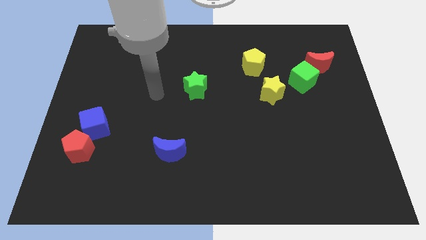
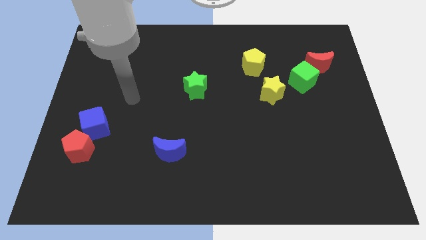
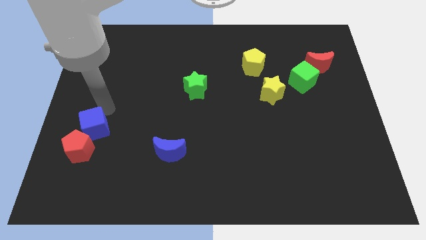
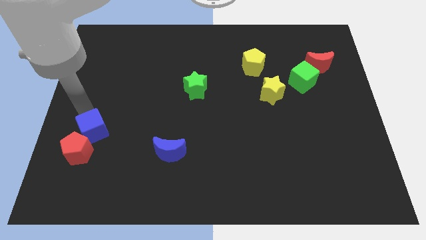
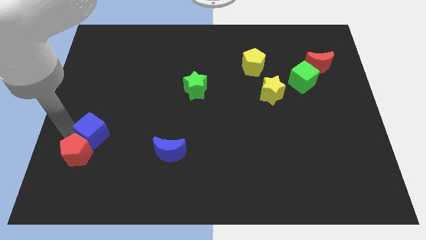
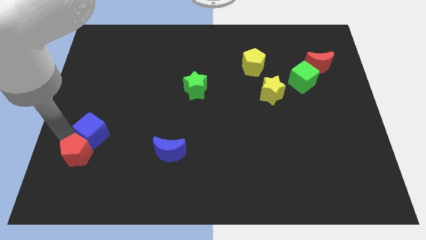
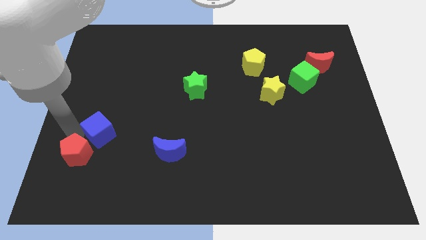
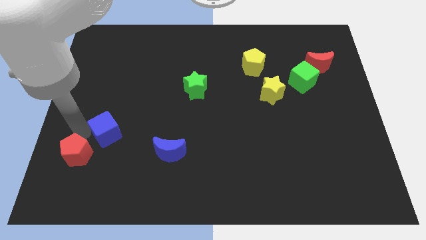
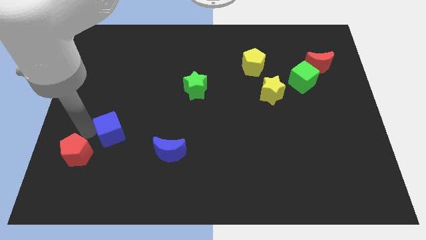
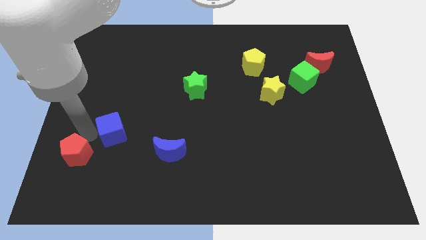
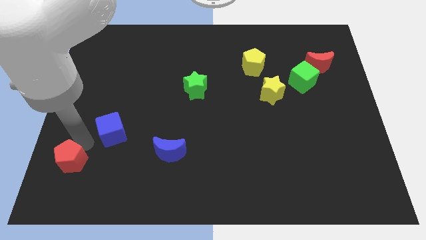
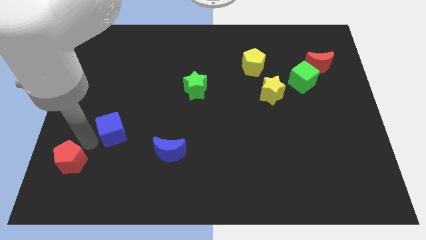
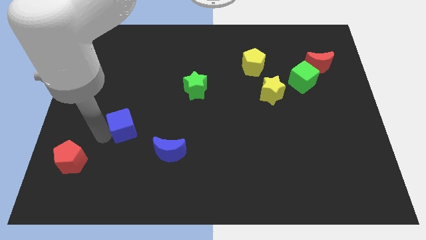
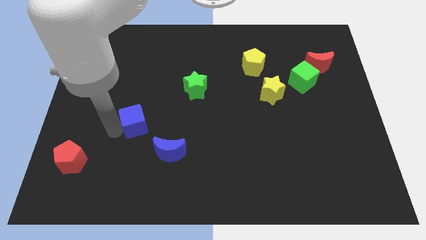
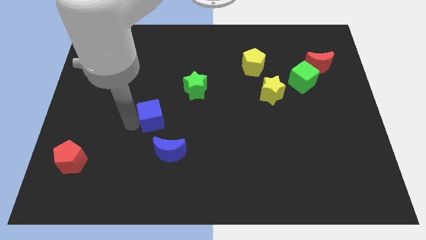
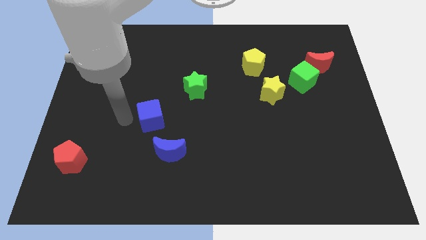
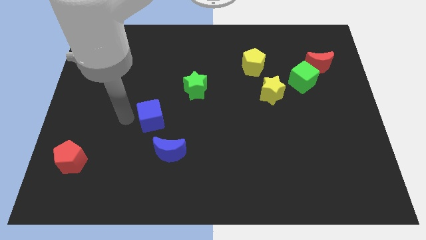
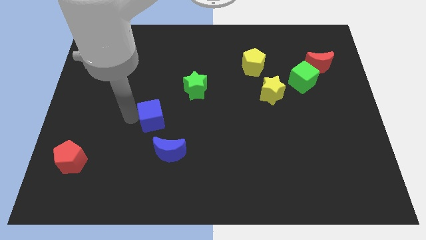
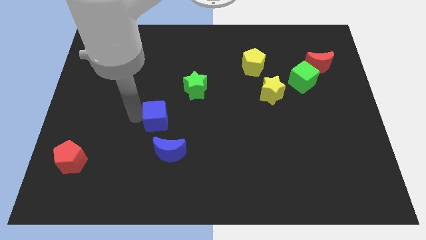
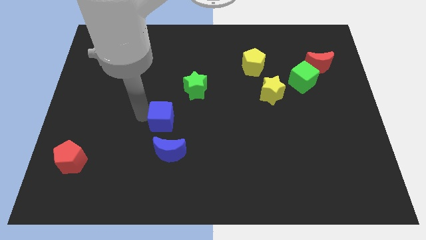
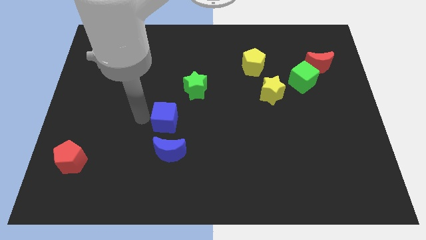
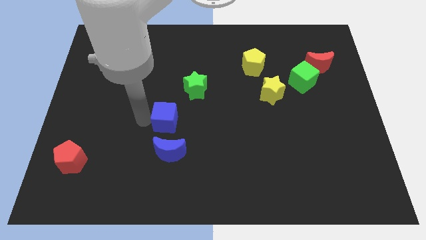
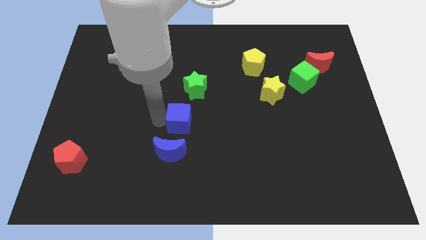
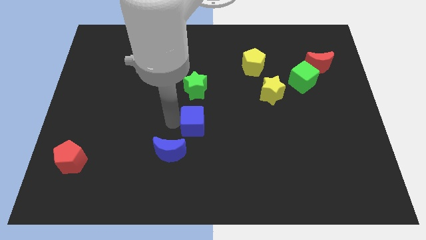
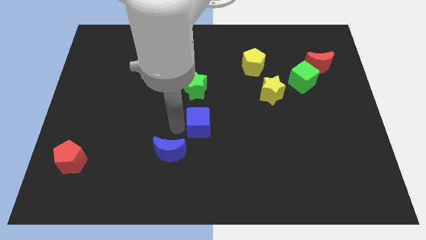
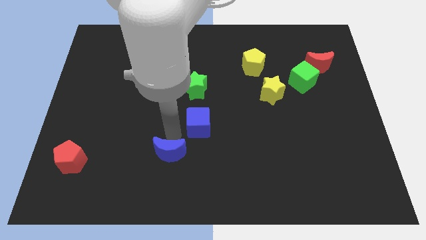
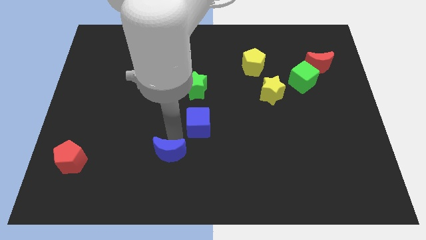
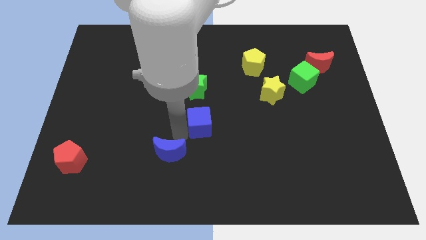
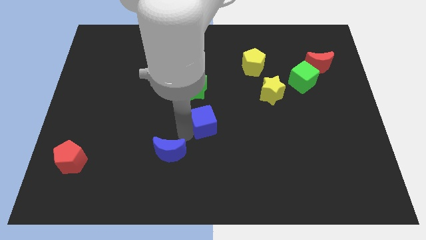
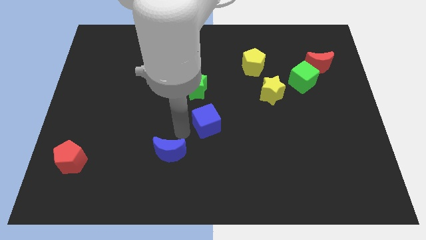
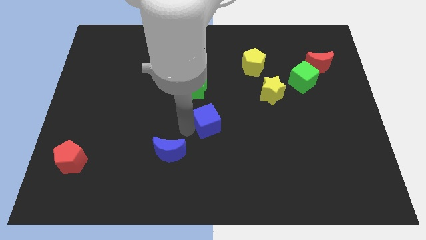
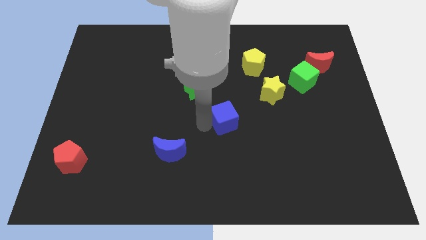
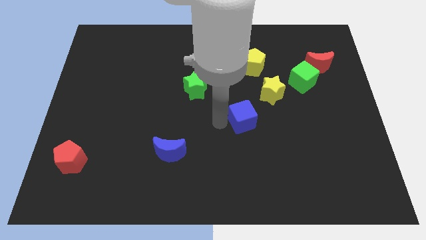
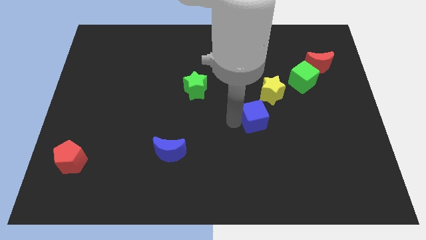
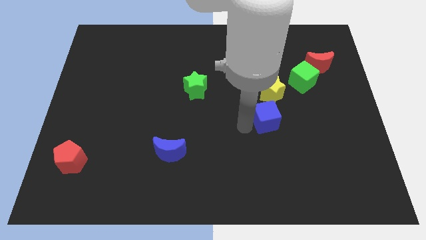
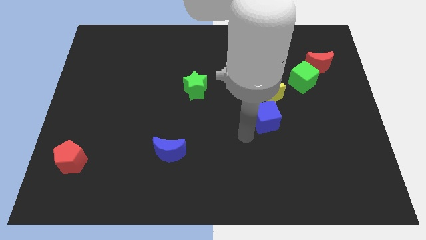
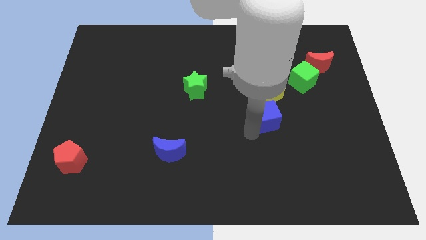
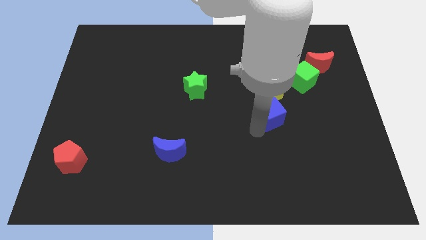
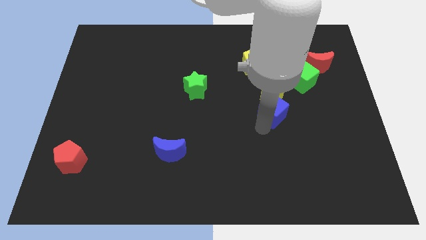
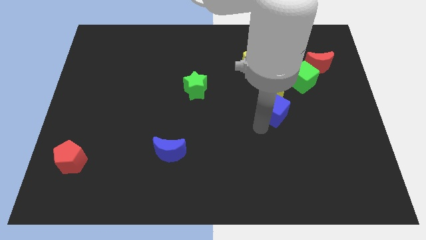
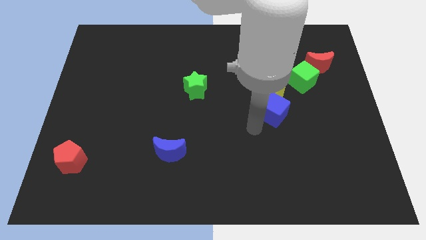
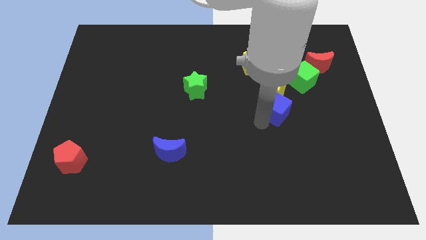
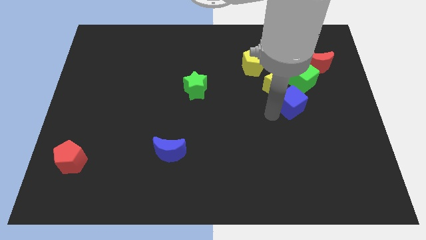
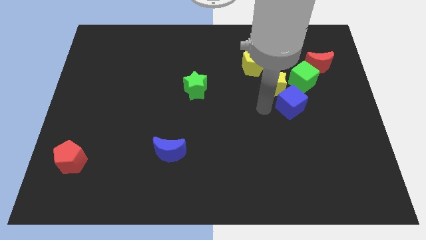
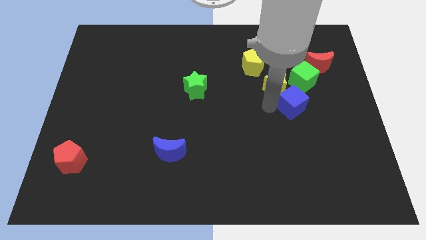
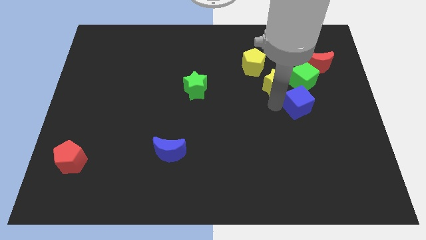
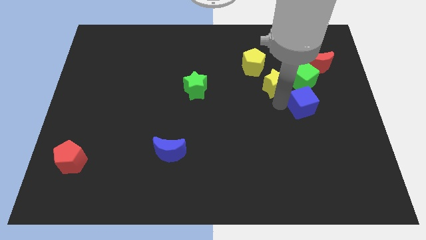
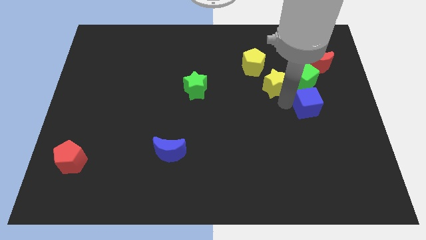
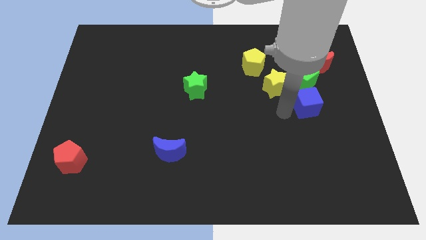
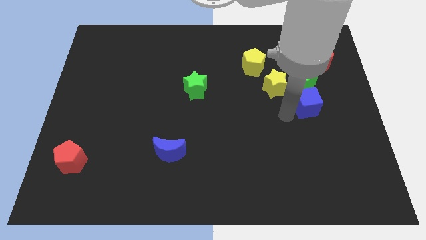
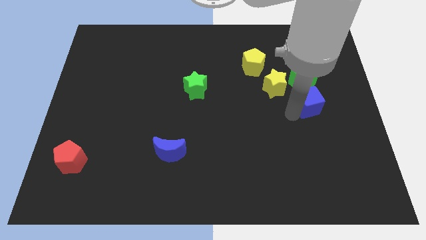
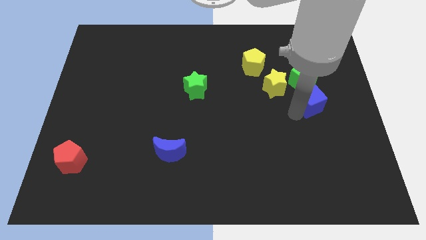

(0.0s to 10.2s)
put the blue cube diagonally down and to the right of the green cube

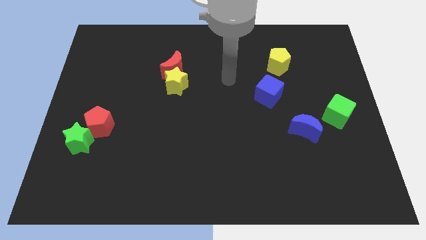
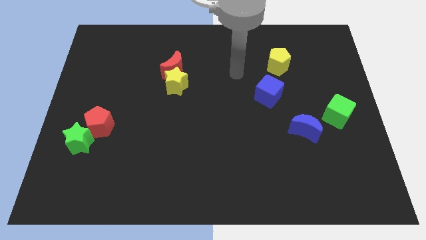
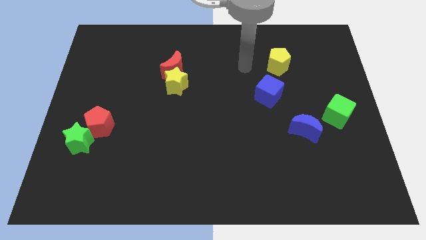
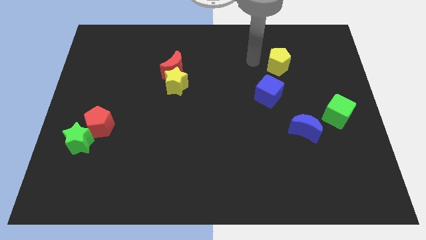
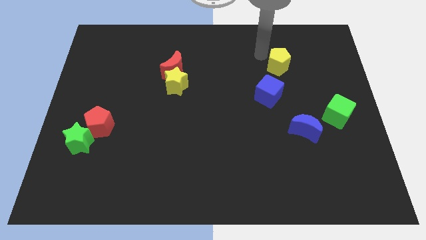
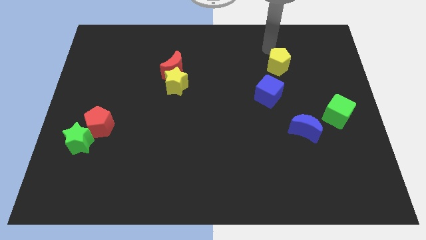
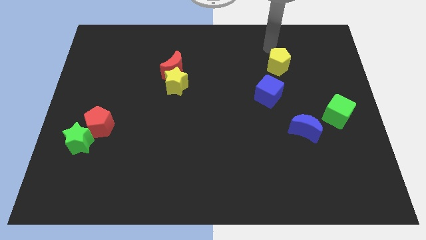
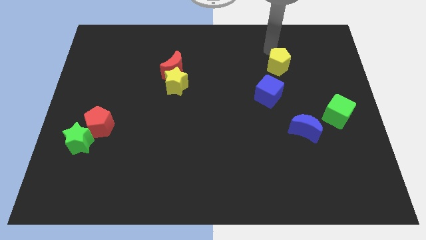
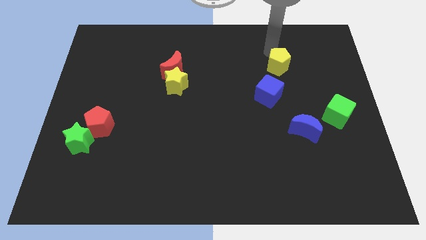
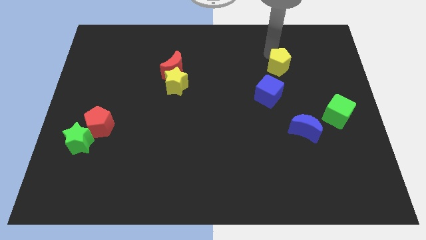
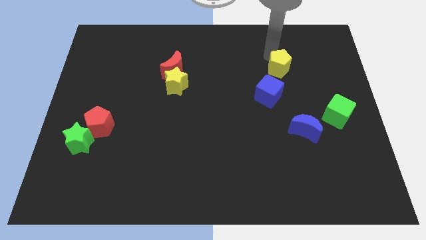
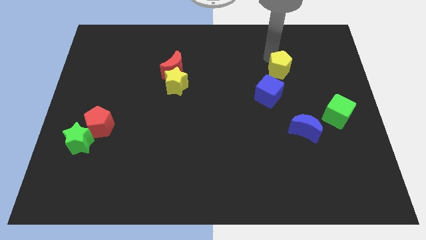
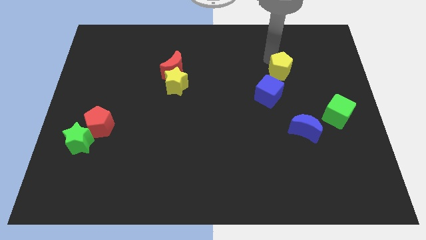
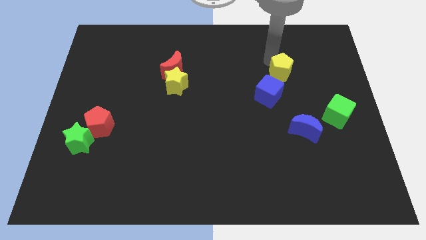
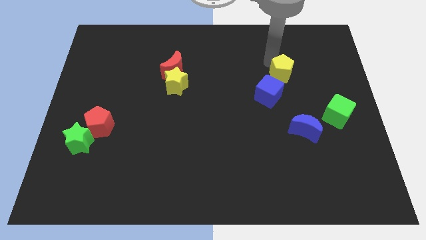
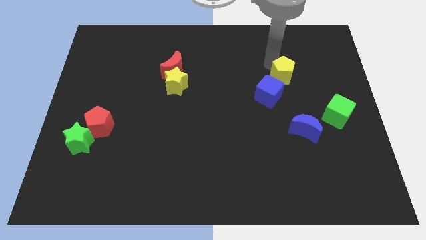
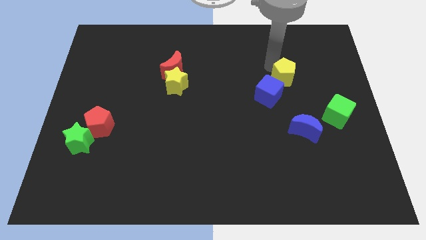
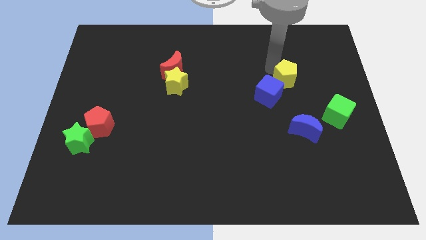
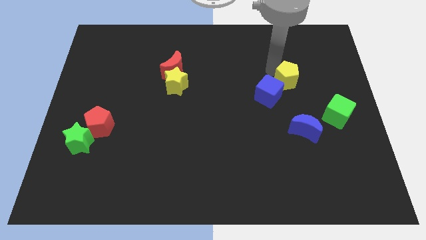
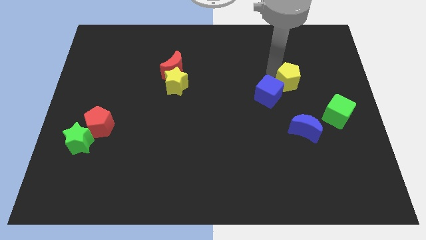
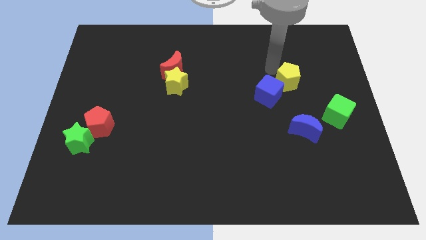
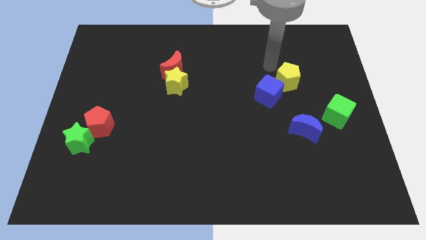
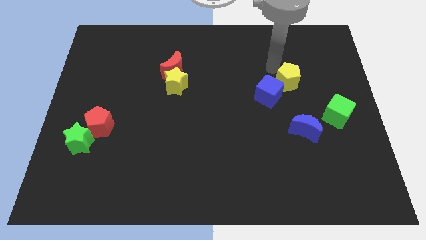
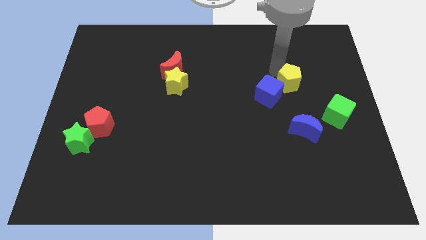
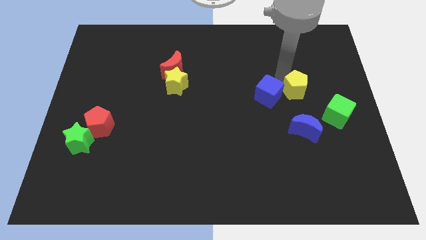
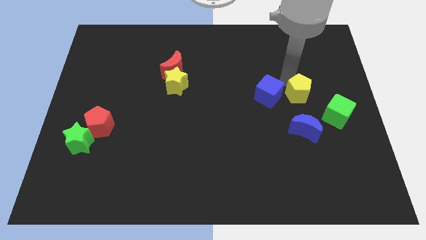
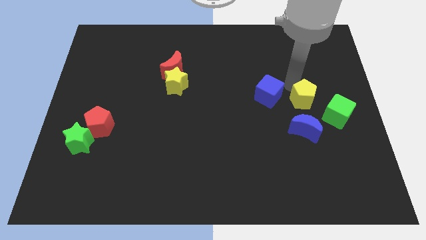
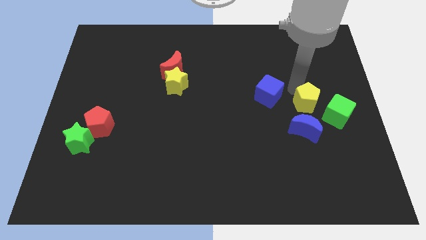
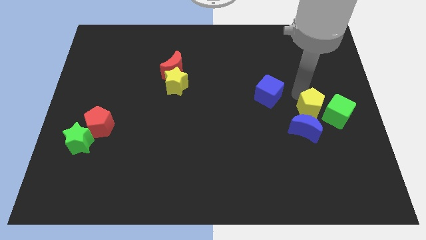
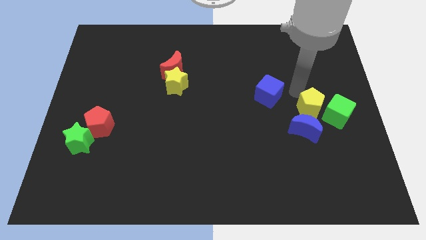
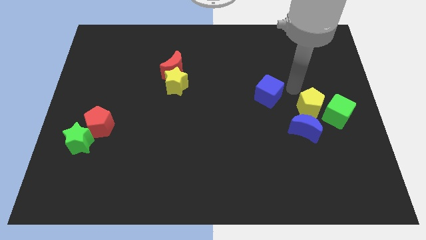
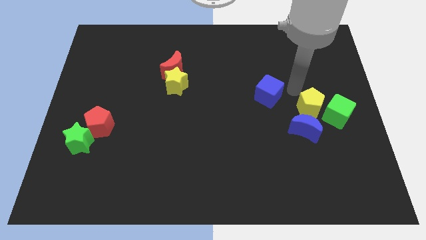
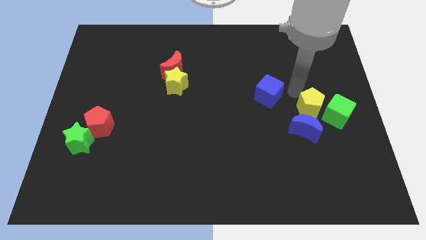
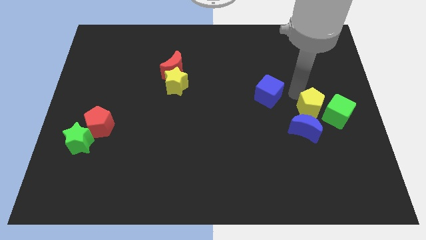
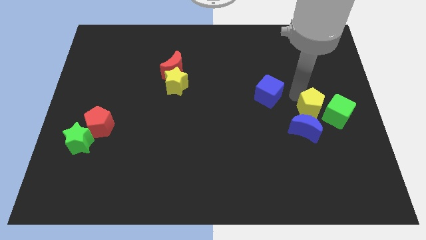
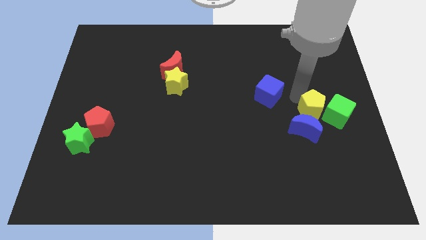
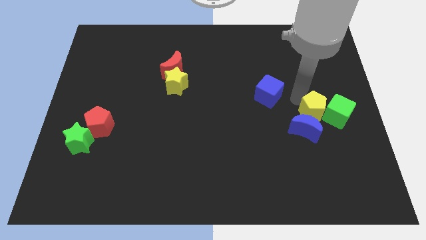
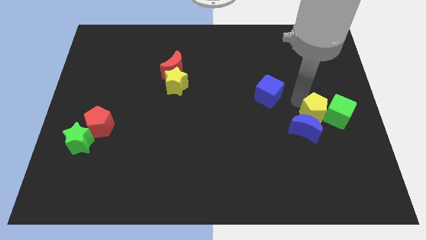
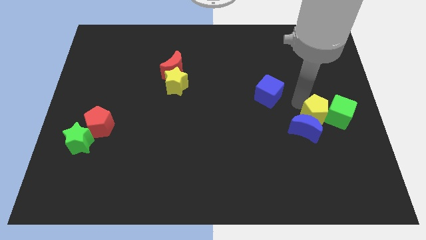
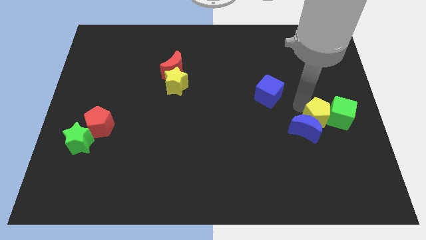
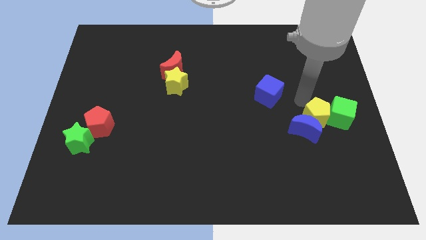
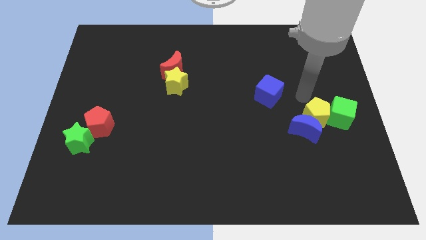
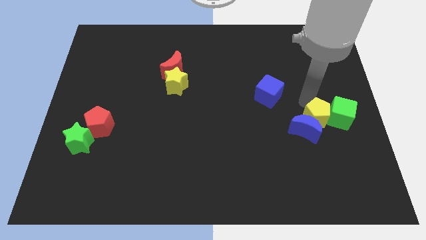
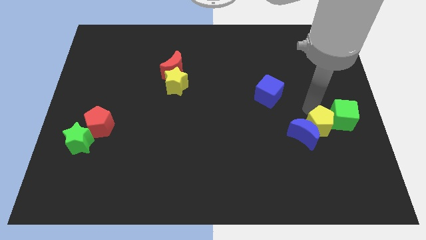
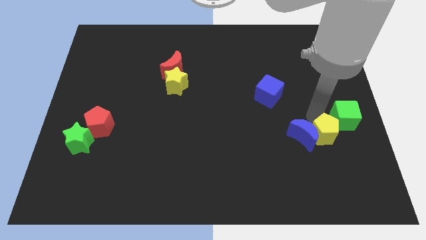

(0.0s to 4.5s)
put the yellow pentagon to the bottom right of the blue moon
